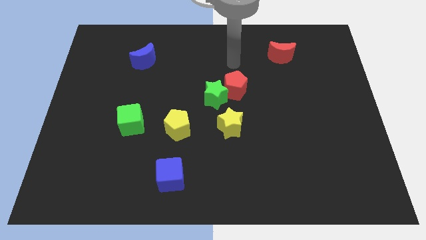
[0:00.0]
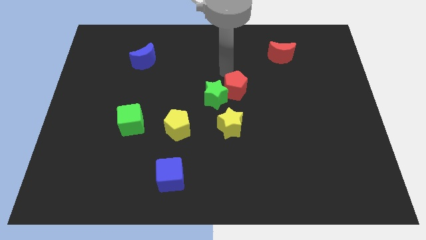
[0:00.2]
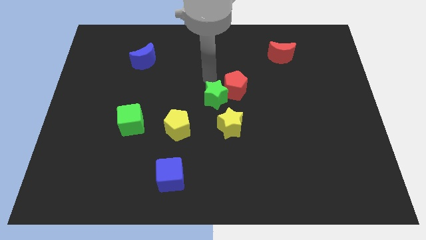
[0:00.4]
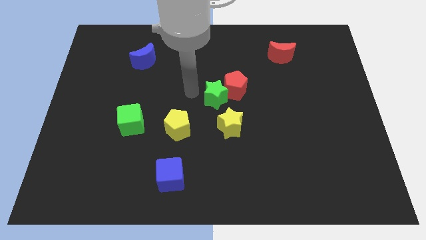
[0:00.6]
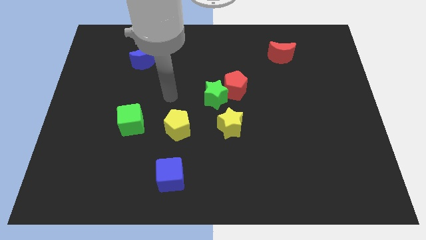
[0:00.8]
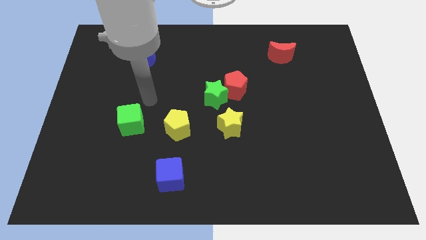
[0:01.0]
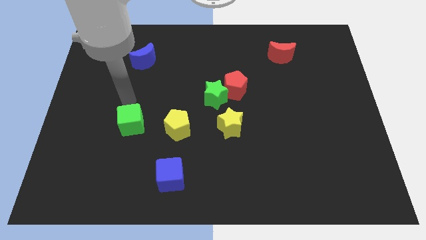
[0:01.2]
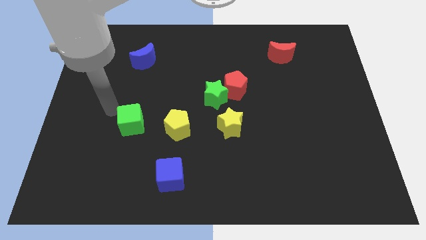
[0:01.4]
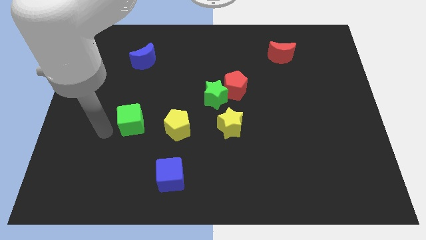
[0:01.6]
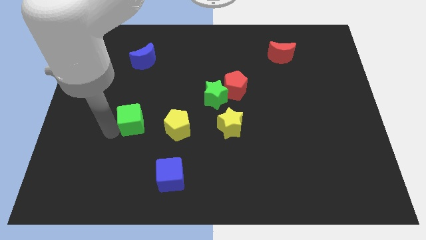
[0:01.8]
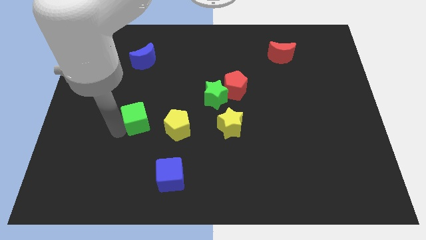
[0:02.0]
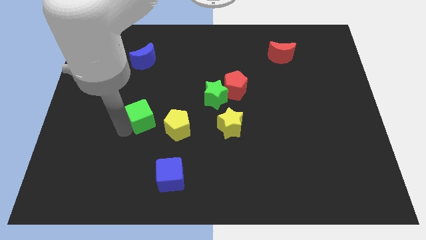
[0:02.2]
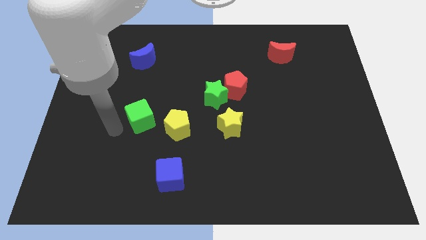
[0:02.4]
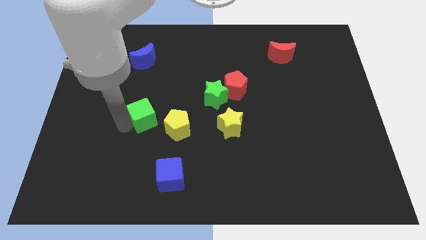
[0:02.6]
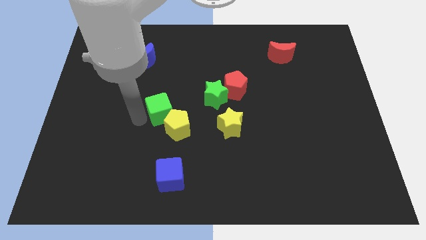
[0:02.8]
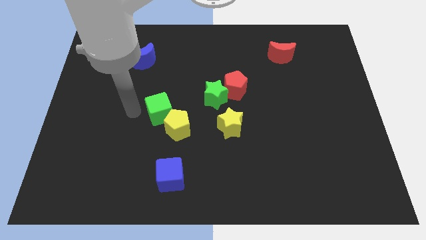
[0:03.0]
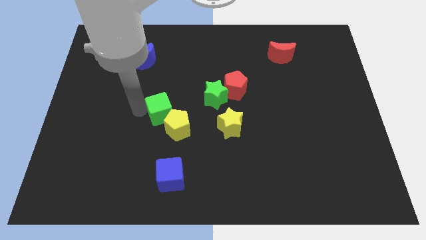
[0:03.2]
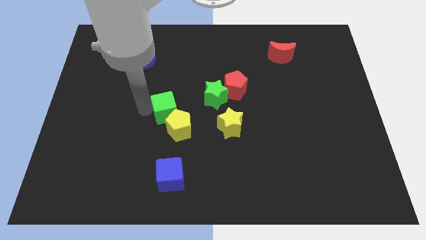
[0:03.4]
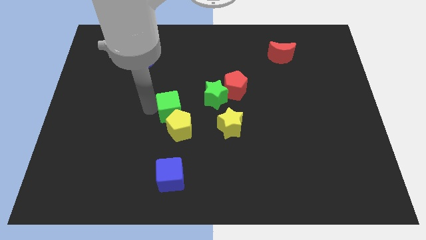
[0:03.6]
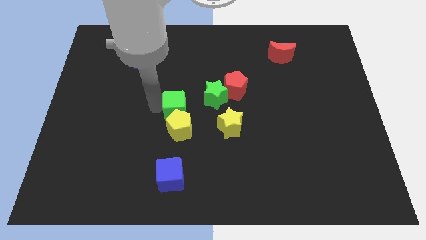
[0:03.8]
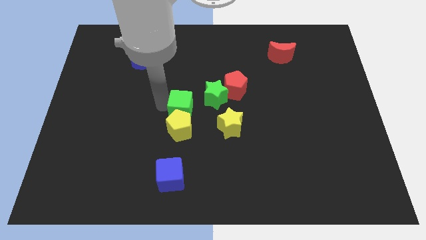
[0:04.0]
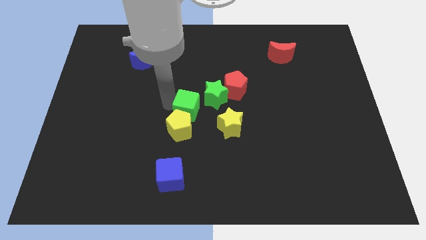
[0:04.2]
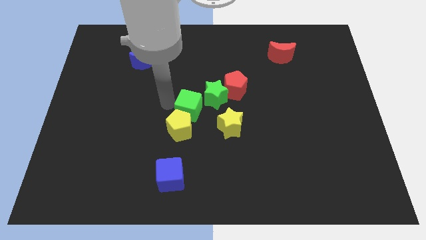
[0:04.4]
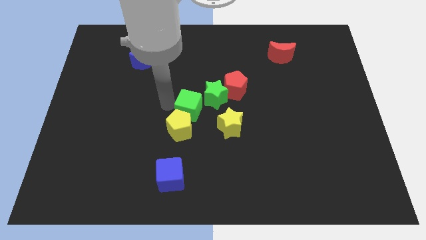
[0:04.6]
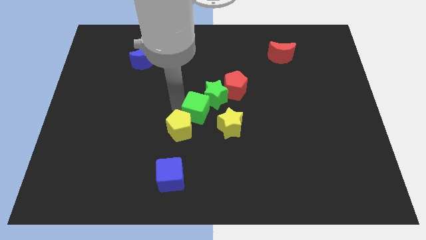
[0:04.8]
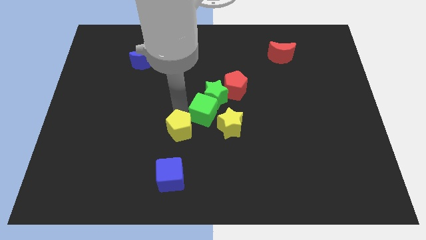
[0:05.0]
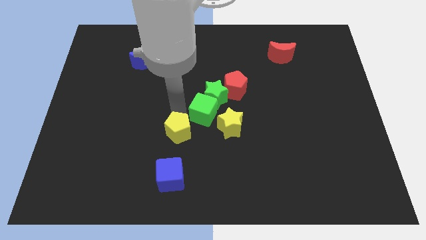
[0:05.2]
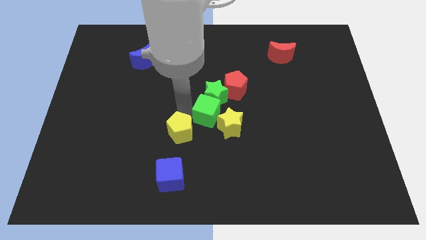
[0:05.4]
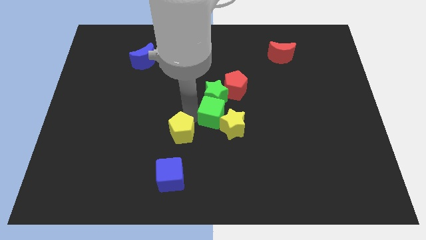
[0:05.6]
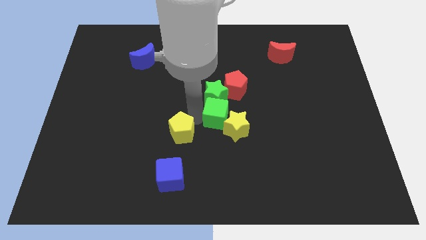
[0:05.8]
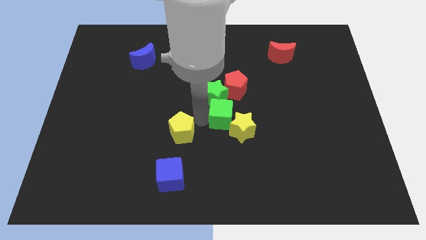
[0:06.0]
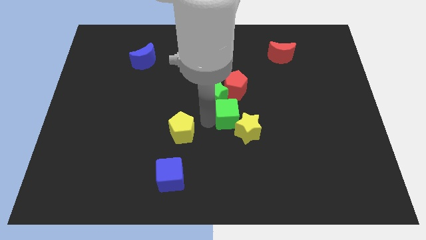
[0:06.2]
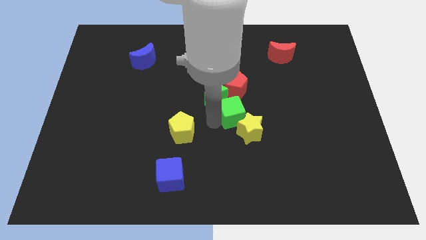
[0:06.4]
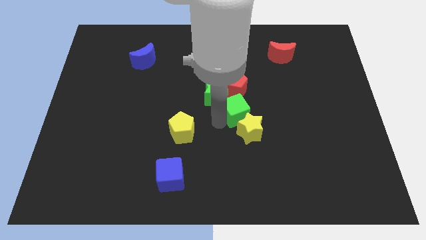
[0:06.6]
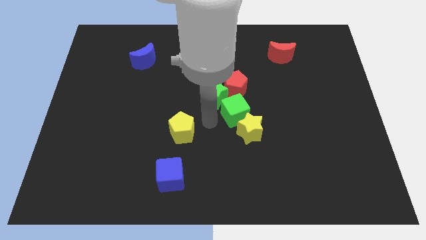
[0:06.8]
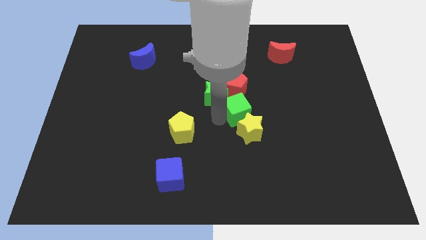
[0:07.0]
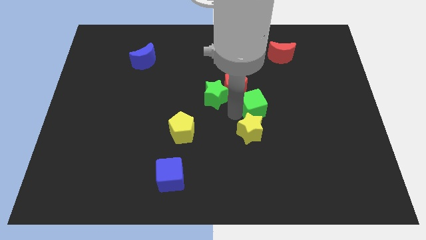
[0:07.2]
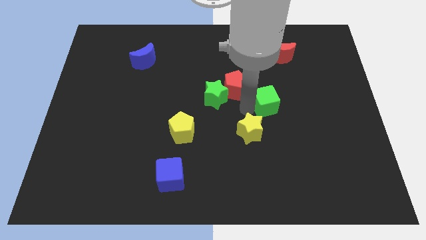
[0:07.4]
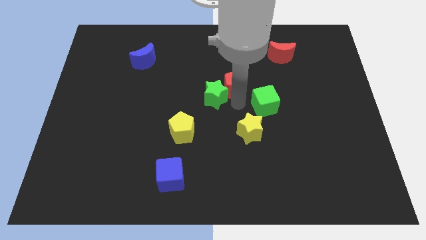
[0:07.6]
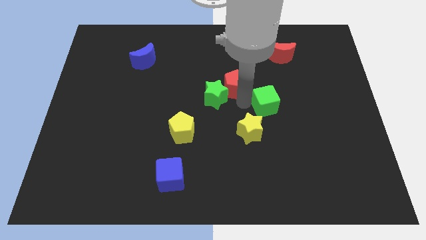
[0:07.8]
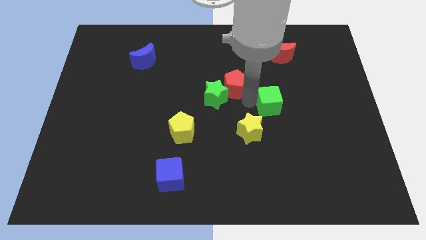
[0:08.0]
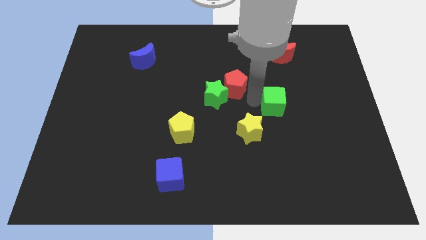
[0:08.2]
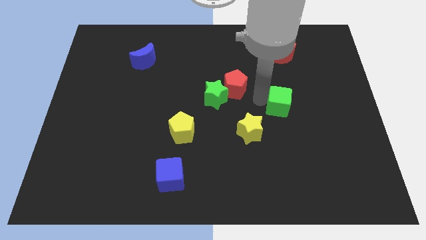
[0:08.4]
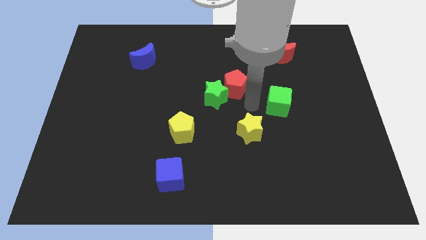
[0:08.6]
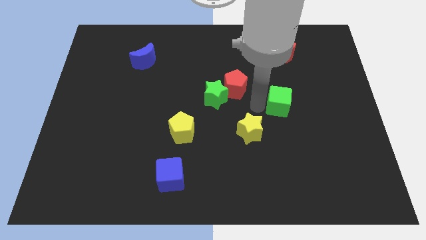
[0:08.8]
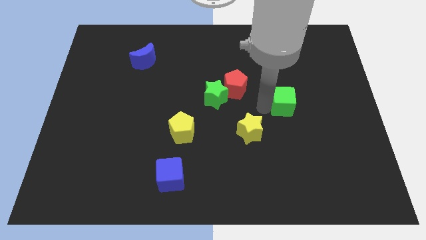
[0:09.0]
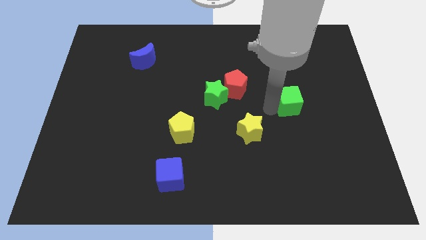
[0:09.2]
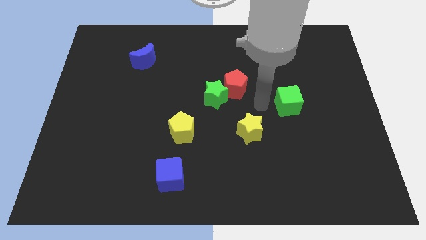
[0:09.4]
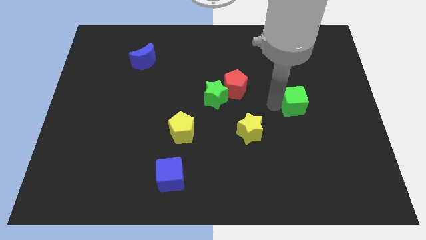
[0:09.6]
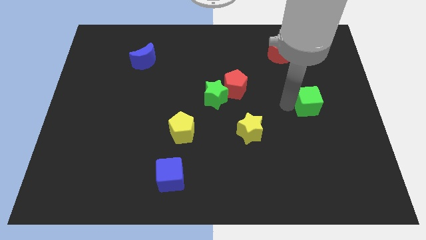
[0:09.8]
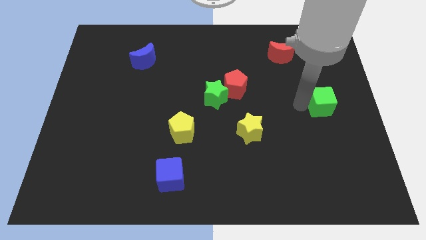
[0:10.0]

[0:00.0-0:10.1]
push the green cube to the center right

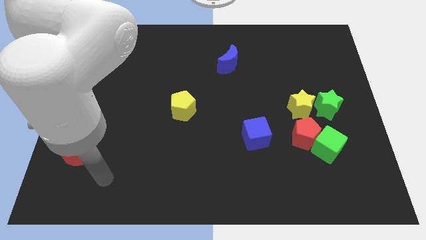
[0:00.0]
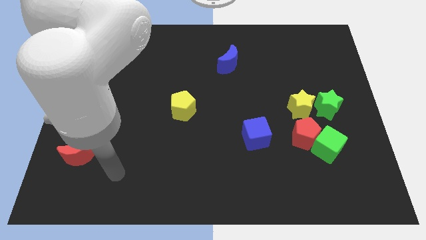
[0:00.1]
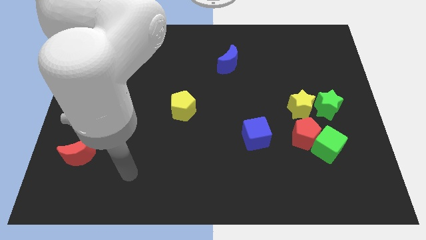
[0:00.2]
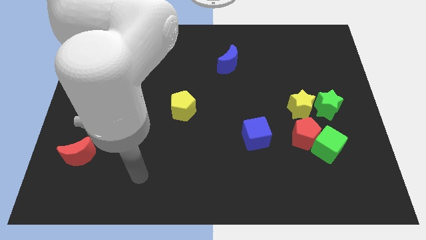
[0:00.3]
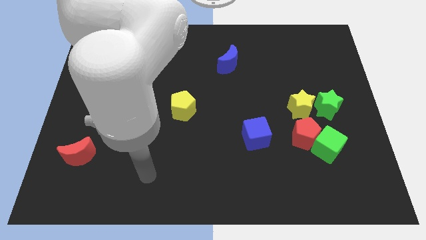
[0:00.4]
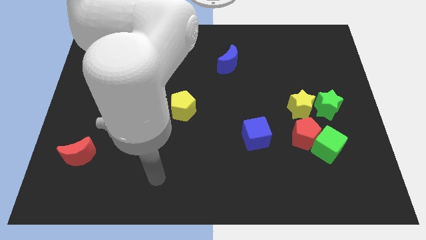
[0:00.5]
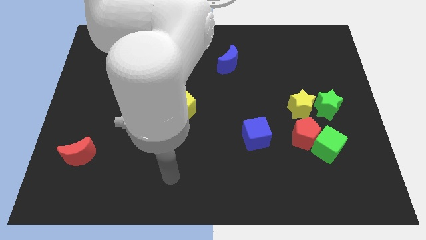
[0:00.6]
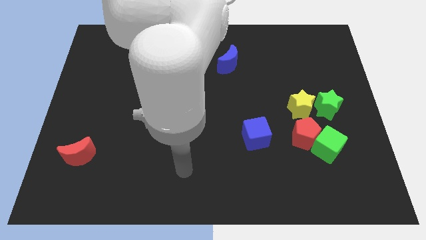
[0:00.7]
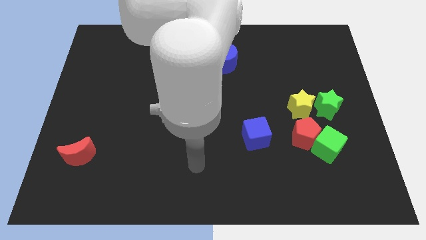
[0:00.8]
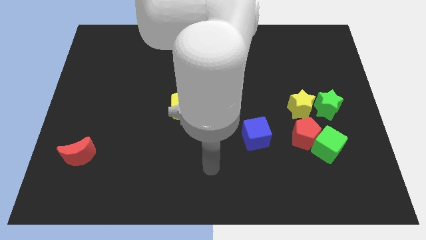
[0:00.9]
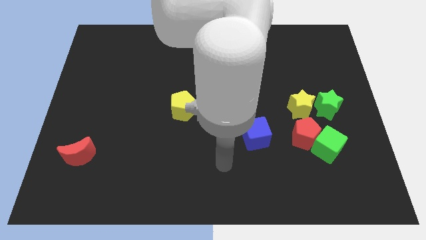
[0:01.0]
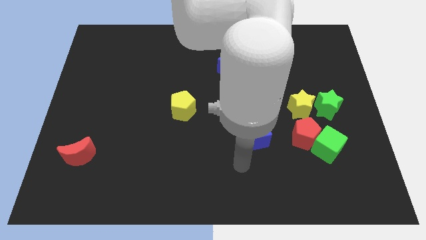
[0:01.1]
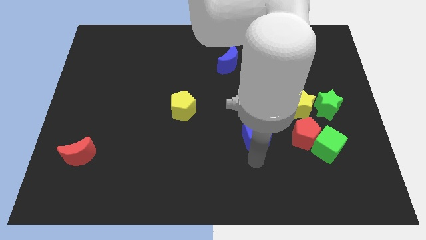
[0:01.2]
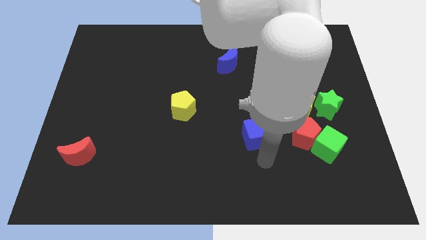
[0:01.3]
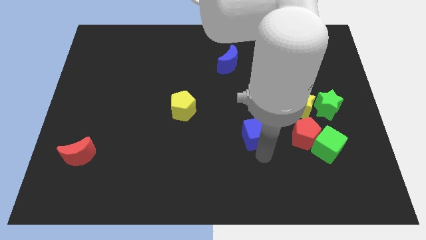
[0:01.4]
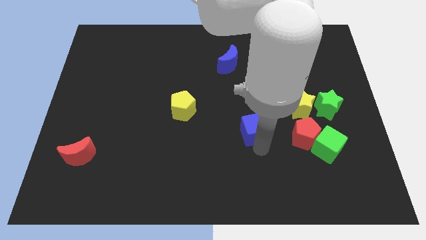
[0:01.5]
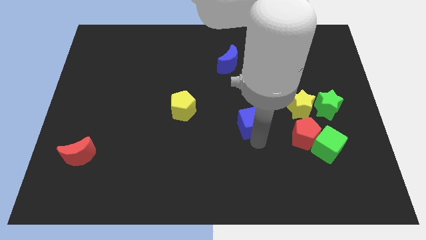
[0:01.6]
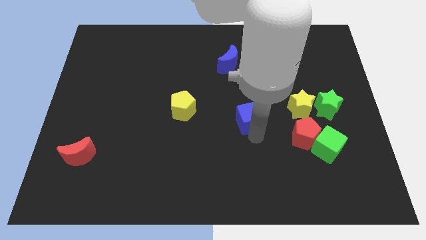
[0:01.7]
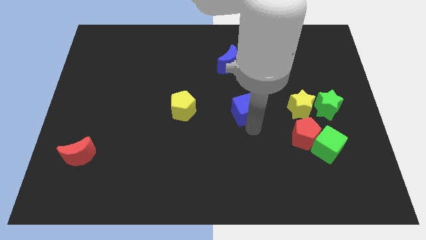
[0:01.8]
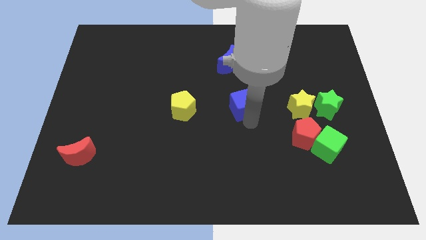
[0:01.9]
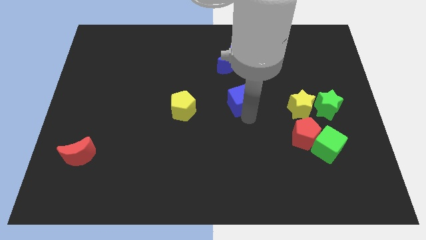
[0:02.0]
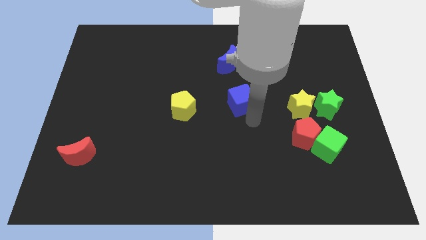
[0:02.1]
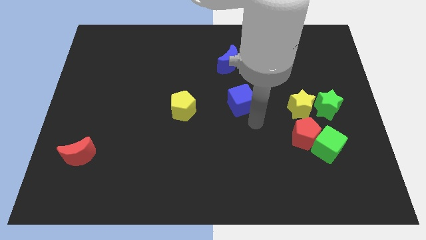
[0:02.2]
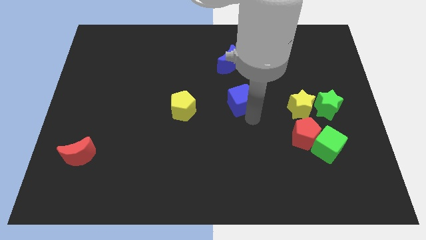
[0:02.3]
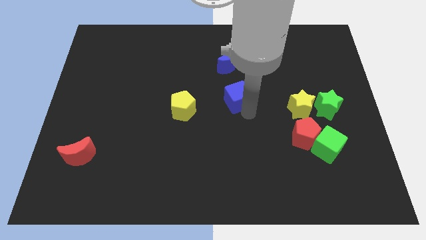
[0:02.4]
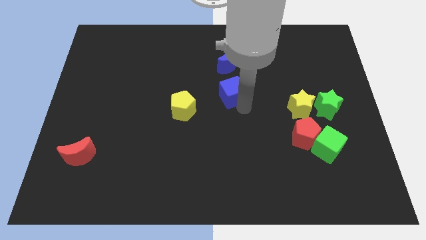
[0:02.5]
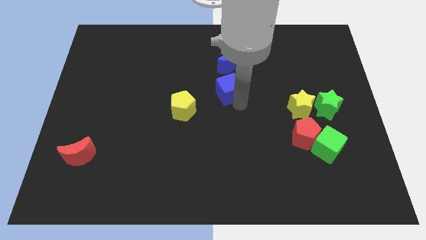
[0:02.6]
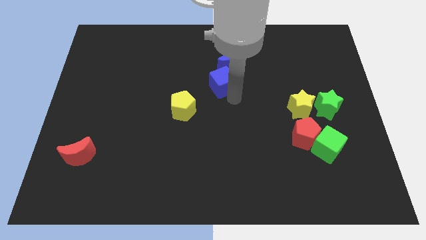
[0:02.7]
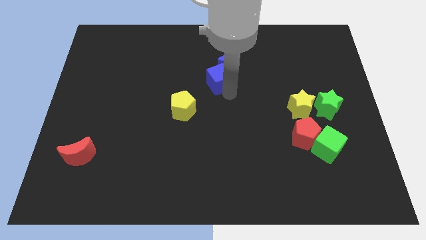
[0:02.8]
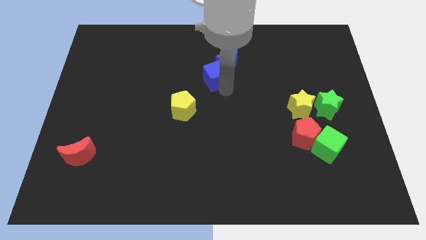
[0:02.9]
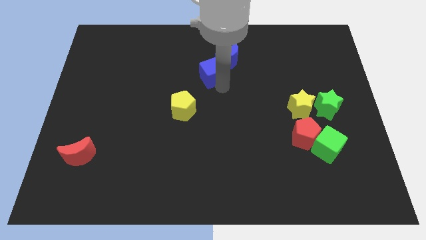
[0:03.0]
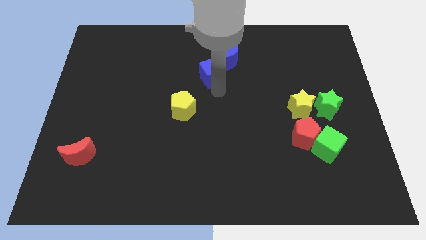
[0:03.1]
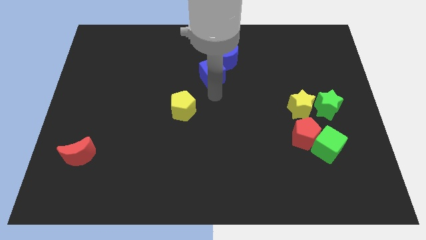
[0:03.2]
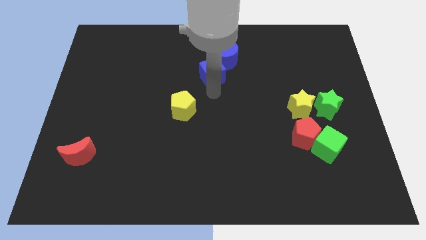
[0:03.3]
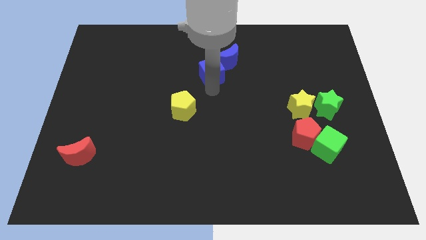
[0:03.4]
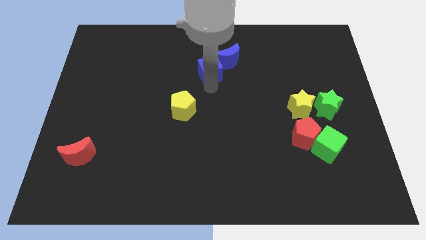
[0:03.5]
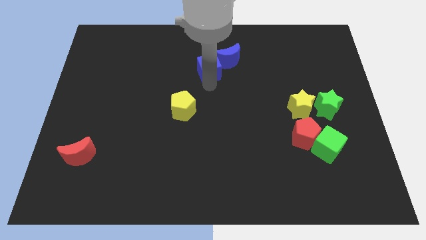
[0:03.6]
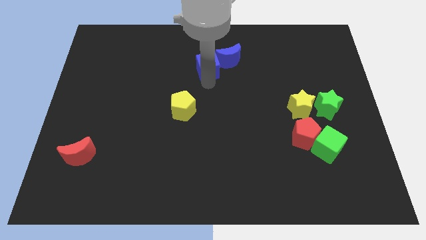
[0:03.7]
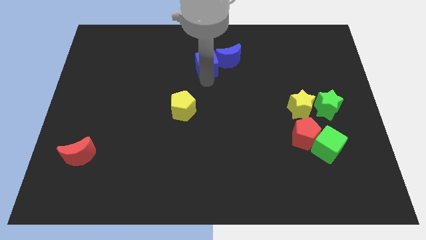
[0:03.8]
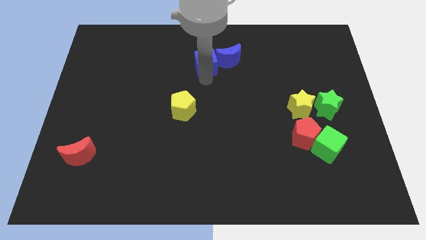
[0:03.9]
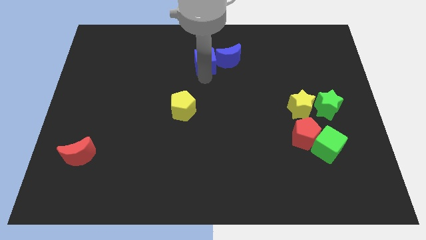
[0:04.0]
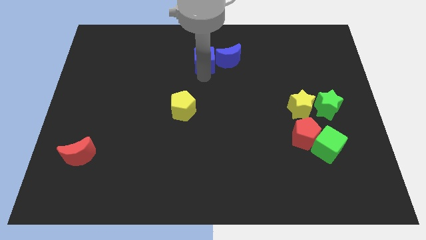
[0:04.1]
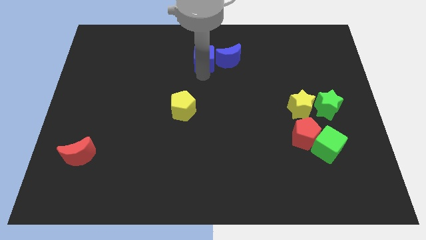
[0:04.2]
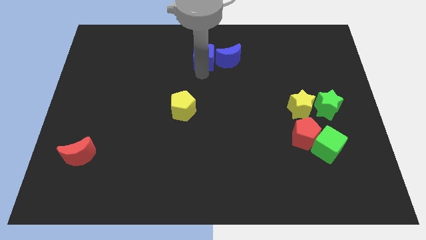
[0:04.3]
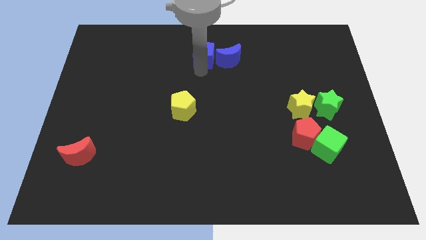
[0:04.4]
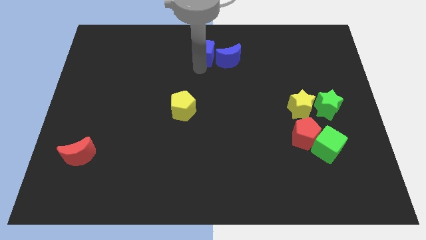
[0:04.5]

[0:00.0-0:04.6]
put the blue cube to the top side
